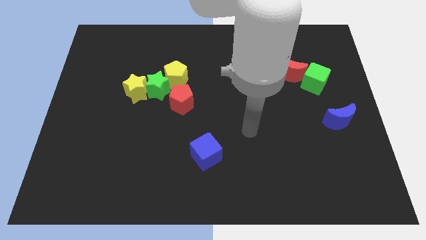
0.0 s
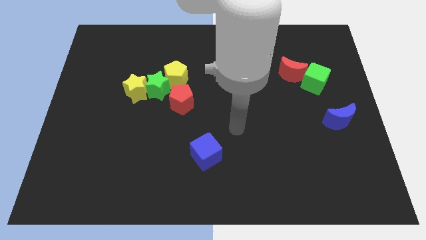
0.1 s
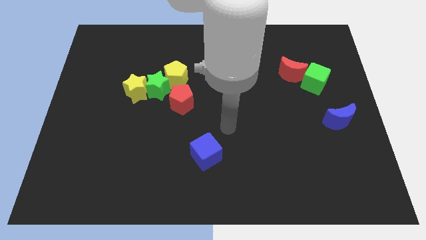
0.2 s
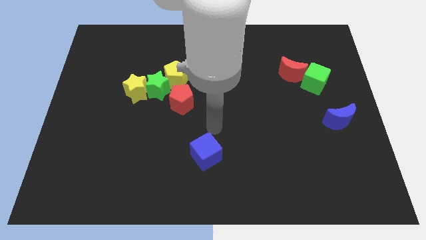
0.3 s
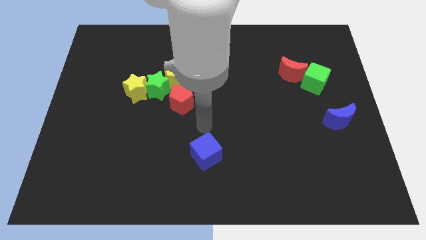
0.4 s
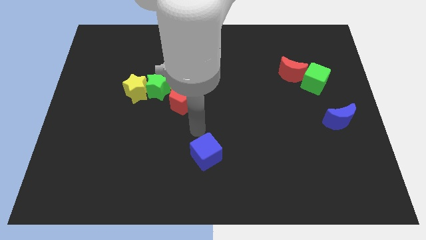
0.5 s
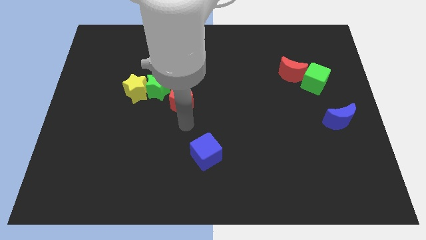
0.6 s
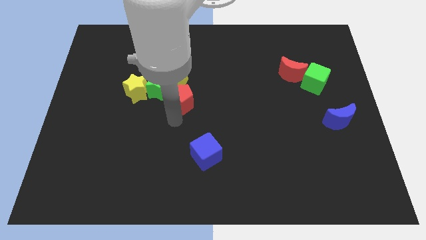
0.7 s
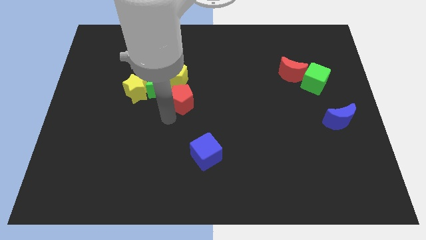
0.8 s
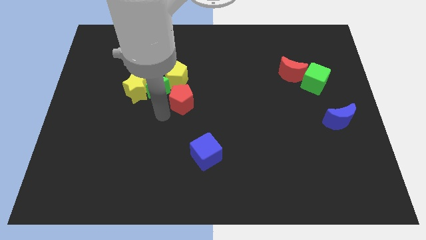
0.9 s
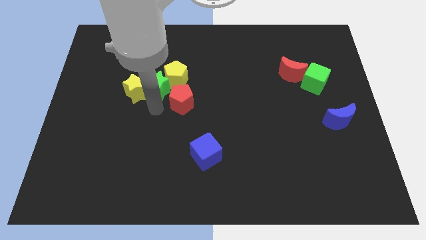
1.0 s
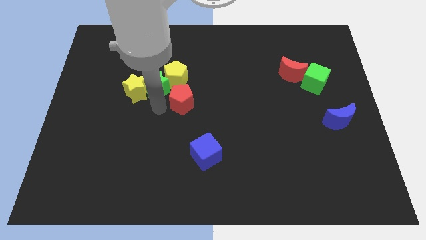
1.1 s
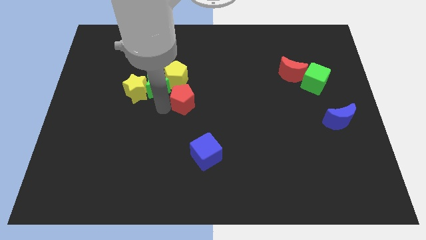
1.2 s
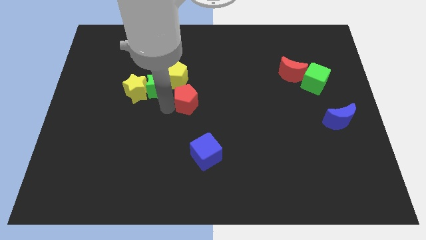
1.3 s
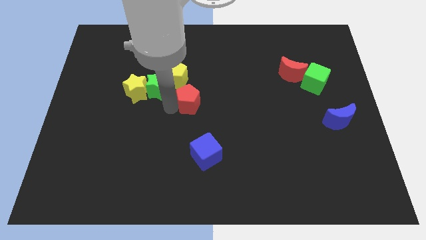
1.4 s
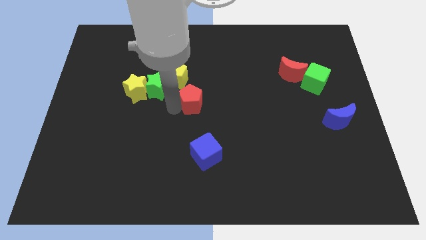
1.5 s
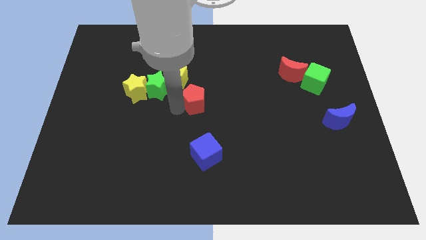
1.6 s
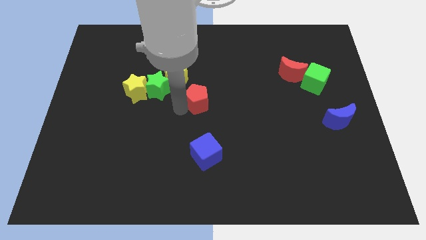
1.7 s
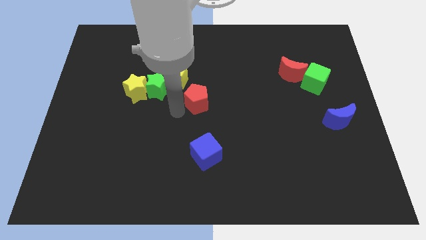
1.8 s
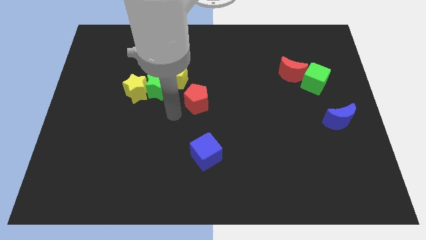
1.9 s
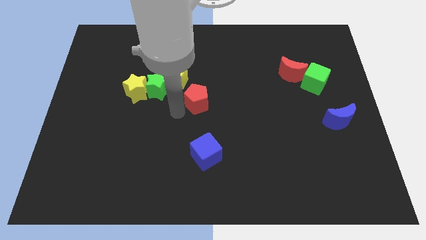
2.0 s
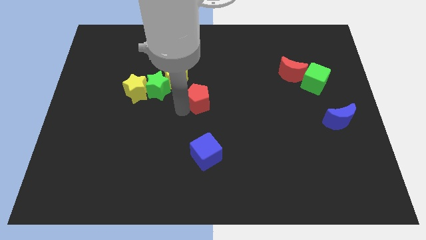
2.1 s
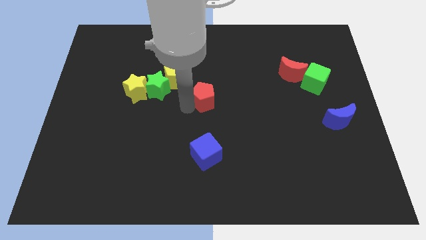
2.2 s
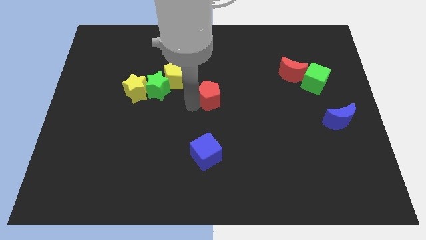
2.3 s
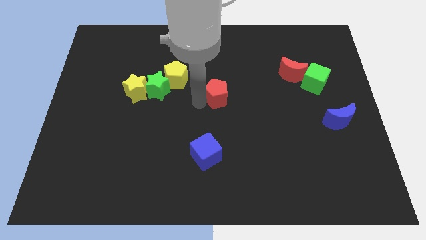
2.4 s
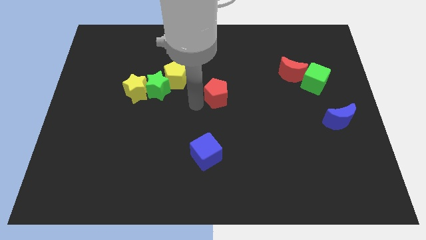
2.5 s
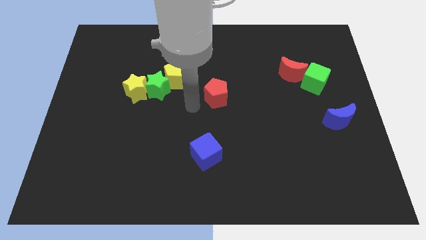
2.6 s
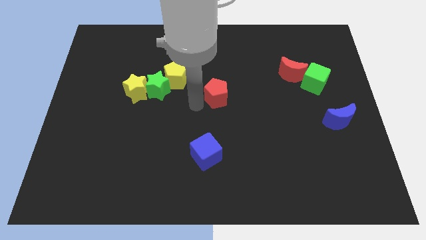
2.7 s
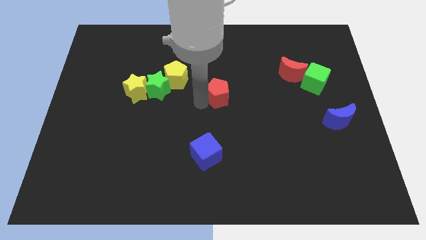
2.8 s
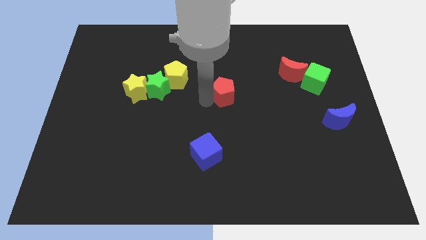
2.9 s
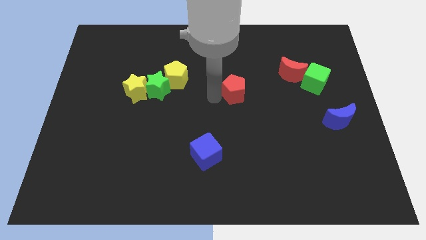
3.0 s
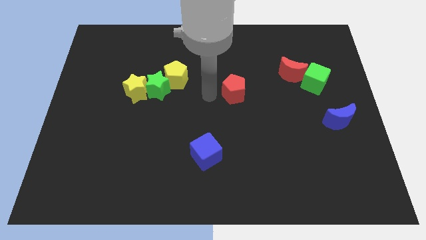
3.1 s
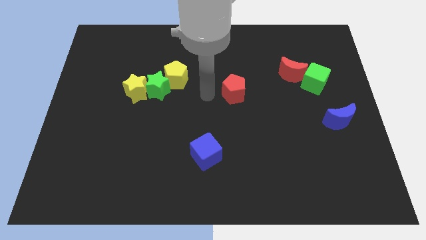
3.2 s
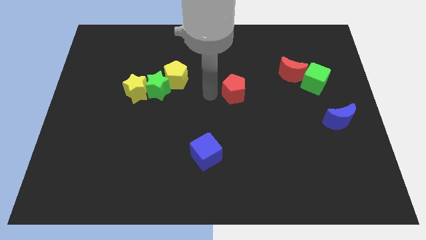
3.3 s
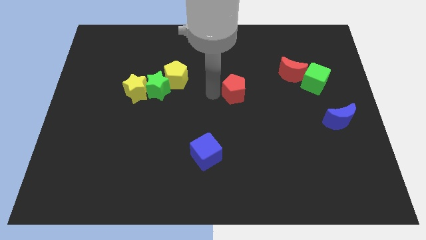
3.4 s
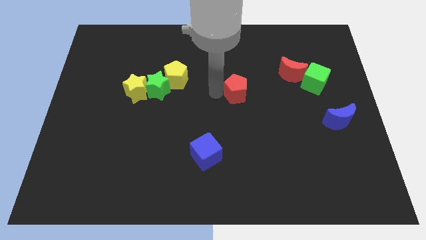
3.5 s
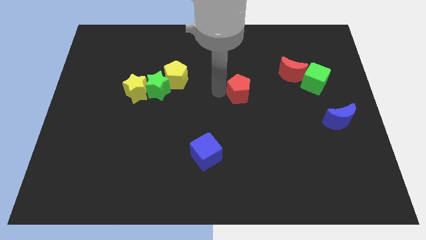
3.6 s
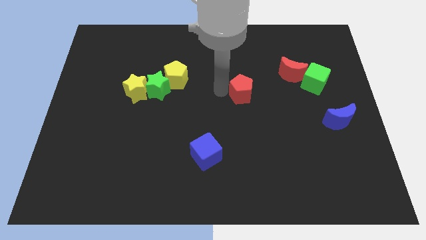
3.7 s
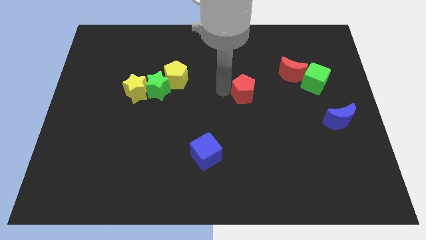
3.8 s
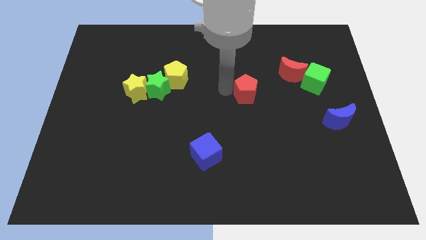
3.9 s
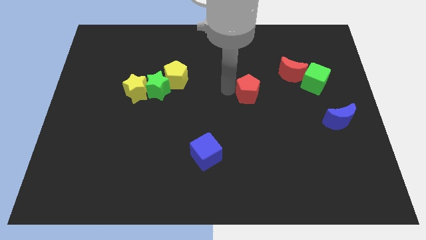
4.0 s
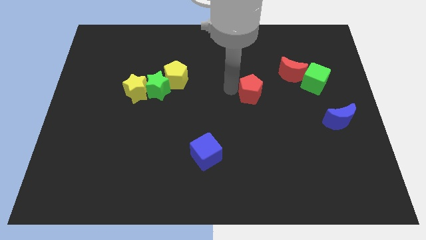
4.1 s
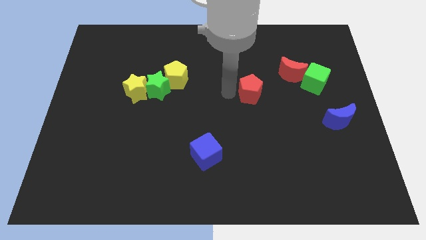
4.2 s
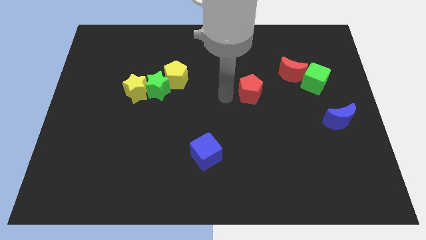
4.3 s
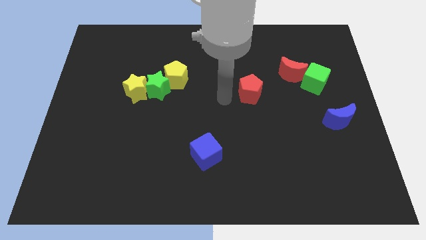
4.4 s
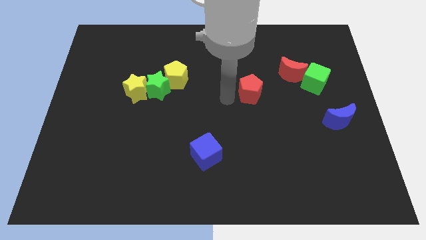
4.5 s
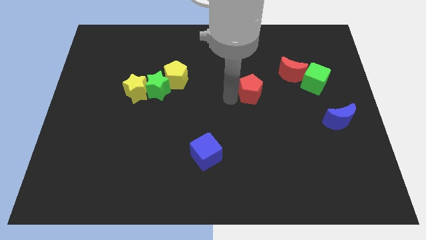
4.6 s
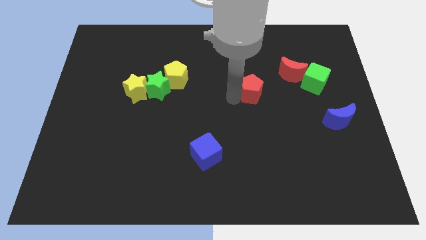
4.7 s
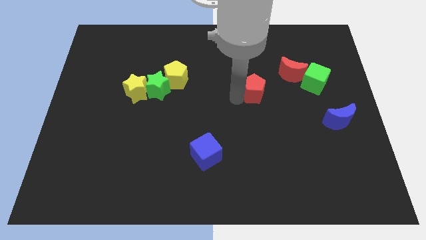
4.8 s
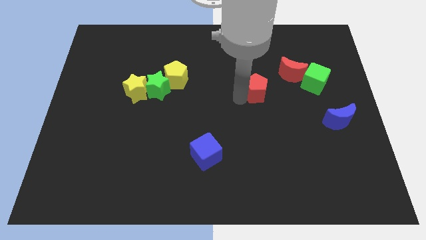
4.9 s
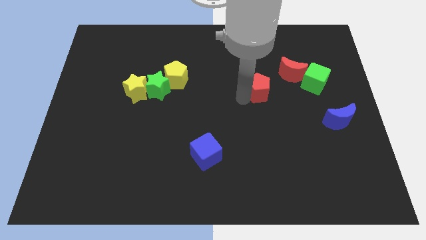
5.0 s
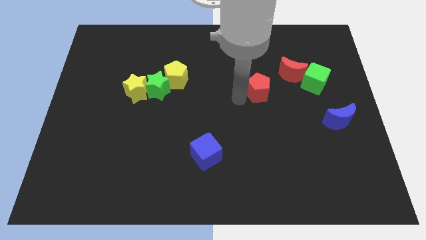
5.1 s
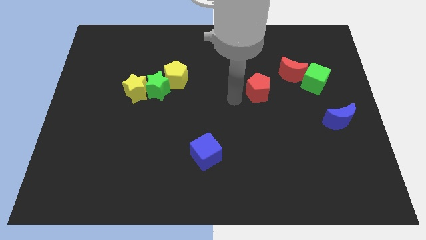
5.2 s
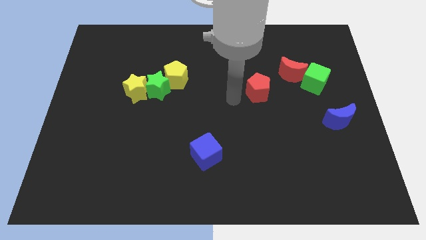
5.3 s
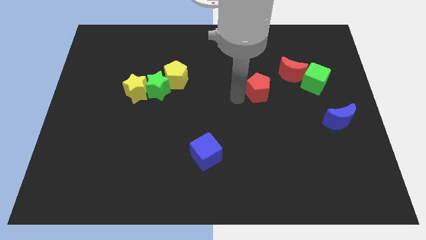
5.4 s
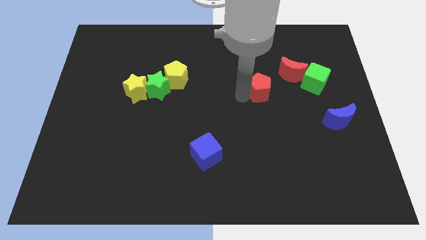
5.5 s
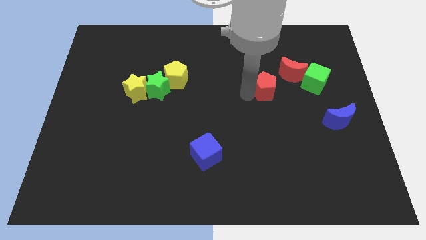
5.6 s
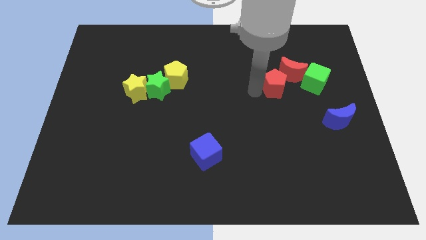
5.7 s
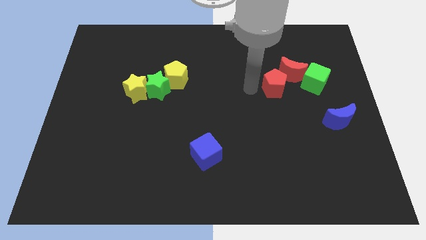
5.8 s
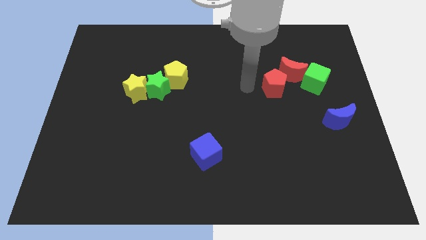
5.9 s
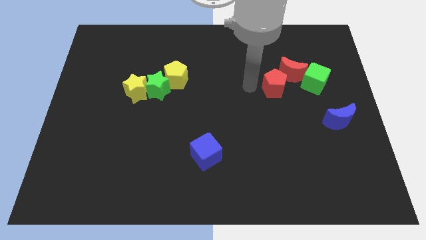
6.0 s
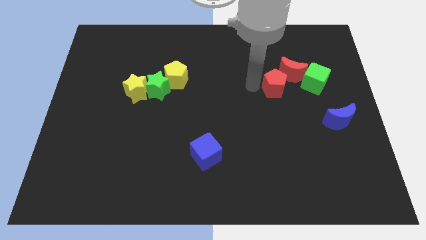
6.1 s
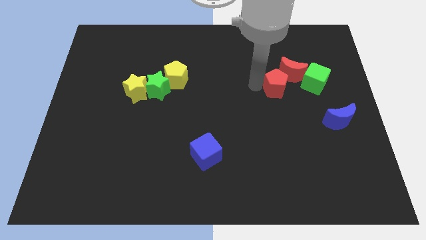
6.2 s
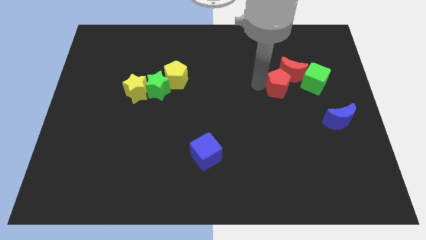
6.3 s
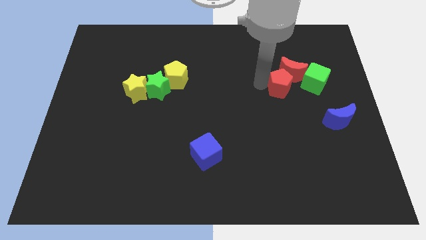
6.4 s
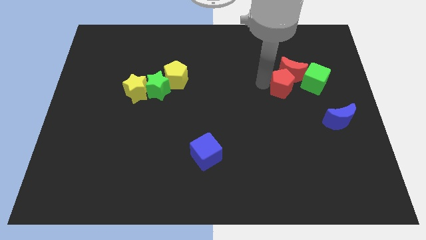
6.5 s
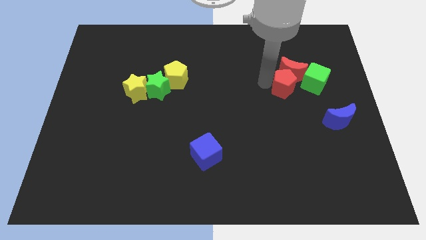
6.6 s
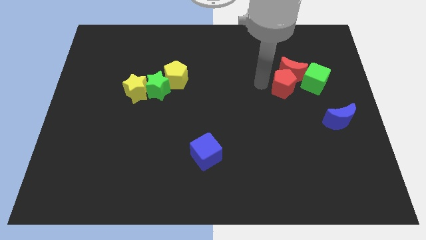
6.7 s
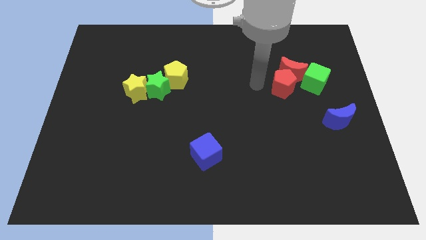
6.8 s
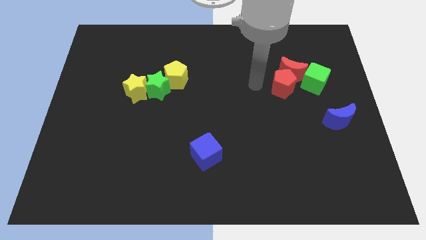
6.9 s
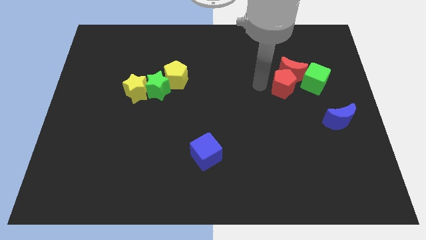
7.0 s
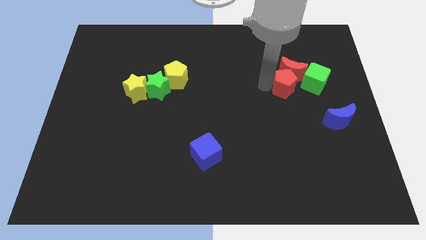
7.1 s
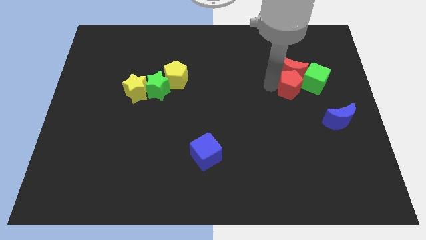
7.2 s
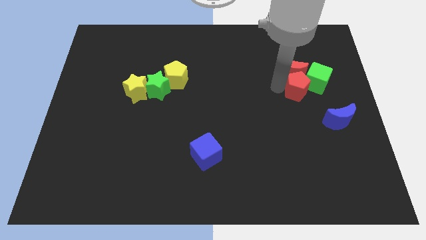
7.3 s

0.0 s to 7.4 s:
move the red pentagon towards the green cube
